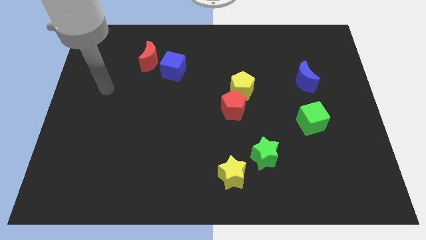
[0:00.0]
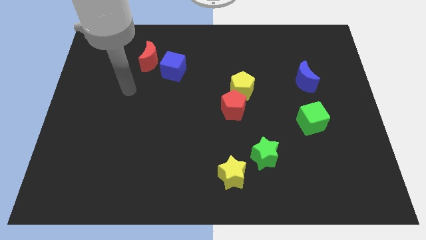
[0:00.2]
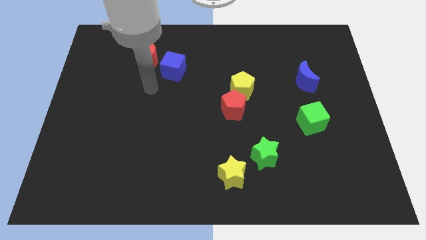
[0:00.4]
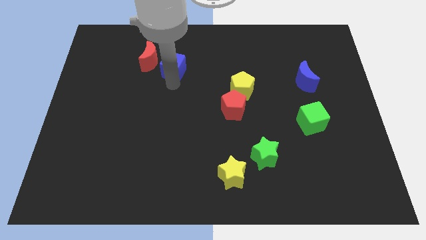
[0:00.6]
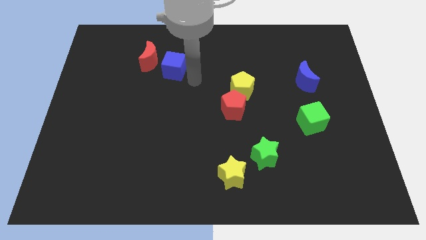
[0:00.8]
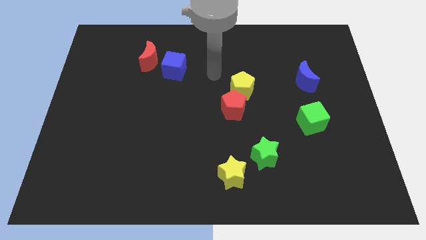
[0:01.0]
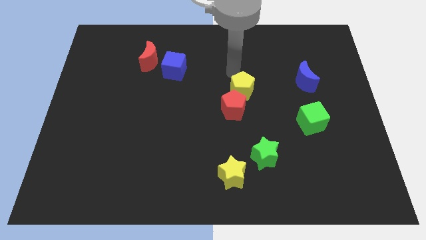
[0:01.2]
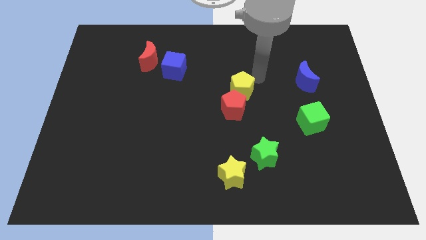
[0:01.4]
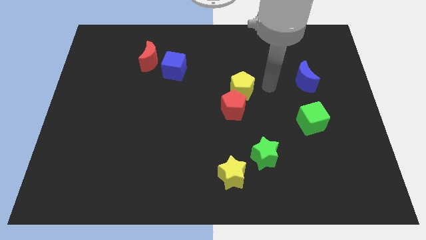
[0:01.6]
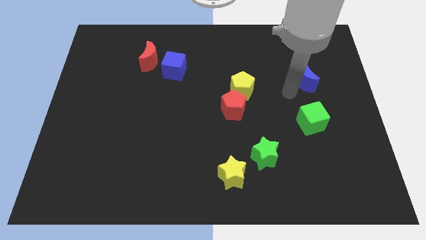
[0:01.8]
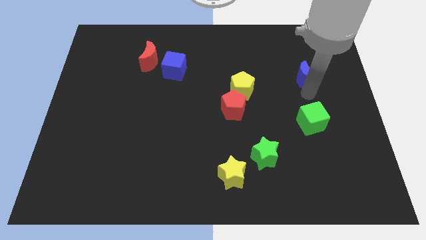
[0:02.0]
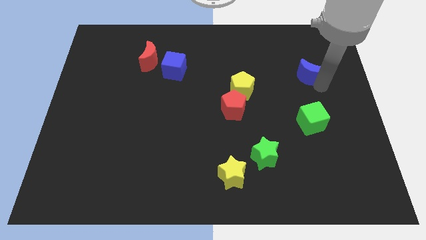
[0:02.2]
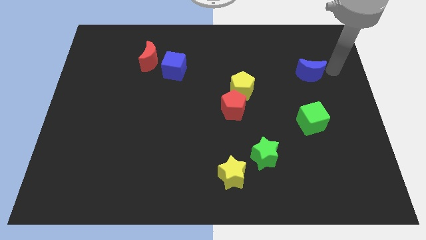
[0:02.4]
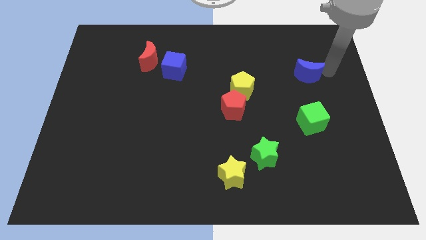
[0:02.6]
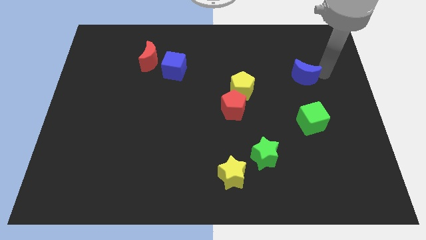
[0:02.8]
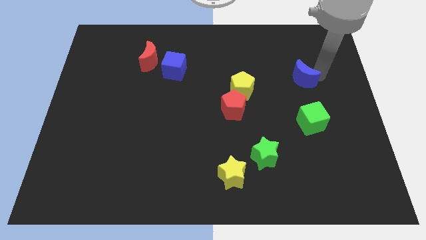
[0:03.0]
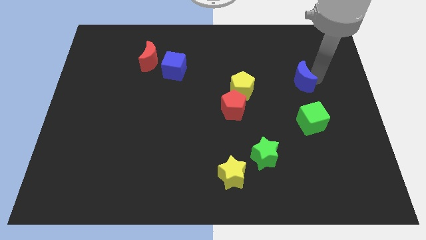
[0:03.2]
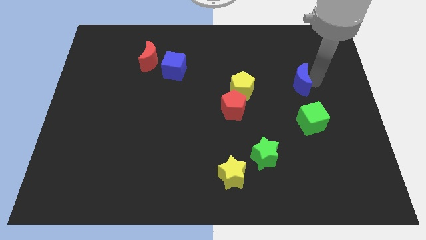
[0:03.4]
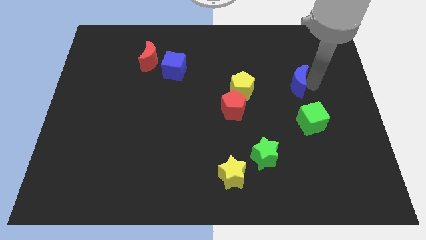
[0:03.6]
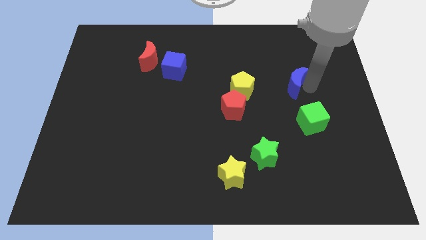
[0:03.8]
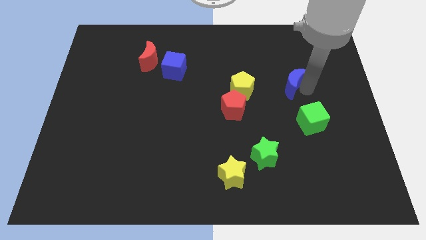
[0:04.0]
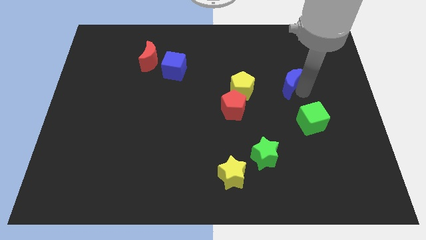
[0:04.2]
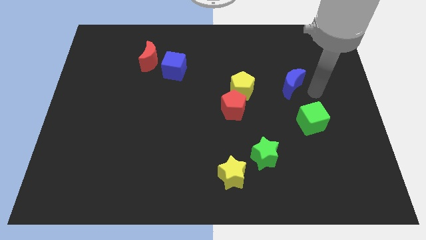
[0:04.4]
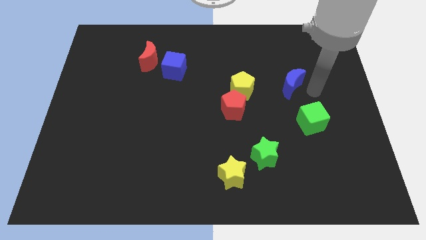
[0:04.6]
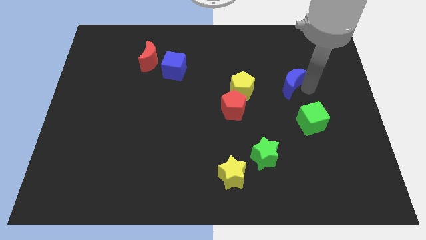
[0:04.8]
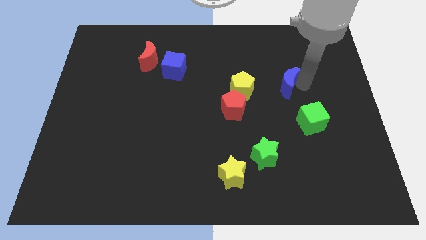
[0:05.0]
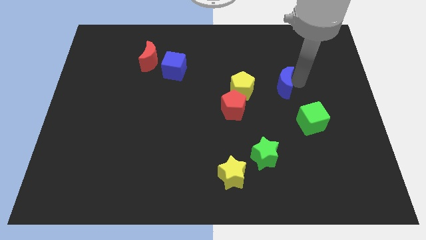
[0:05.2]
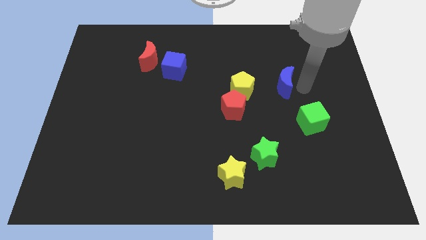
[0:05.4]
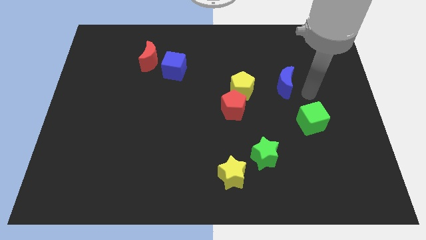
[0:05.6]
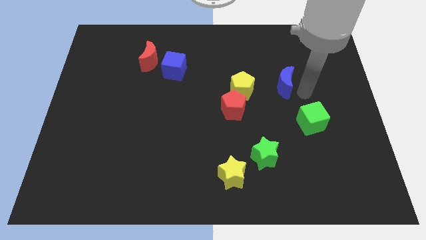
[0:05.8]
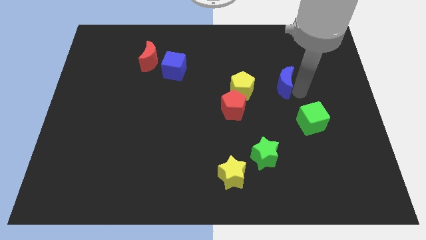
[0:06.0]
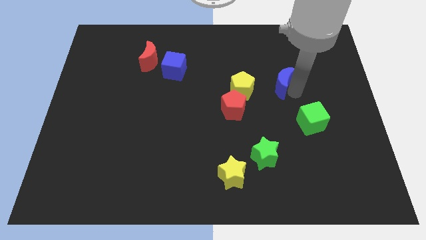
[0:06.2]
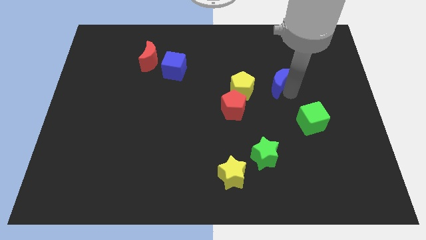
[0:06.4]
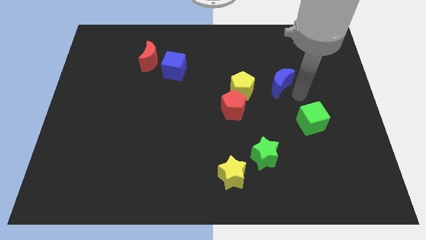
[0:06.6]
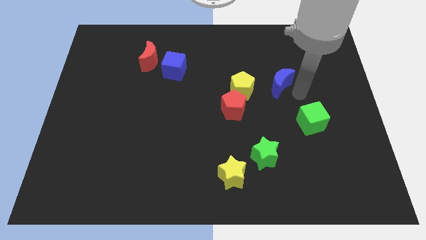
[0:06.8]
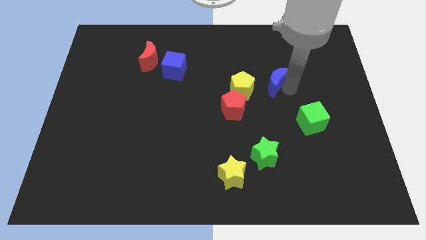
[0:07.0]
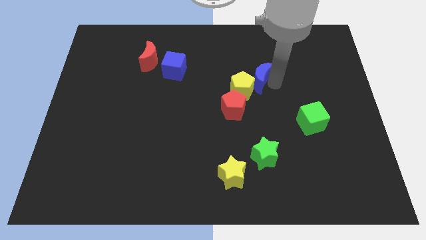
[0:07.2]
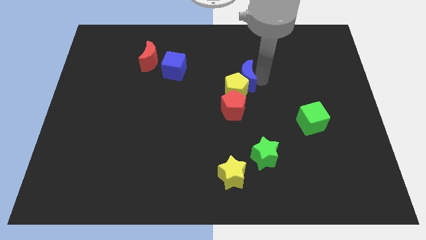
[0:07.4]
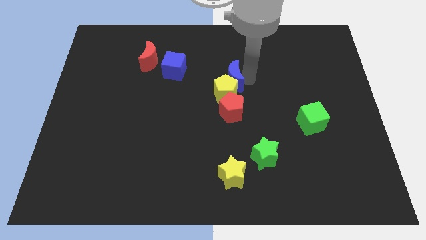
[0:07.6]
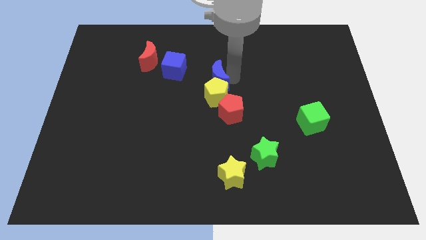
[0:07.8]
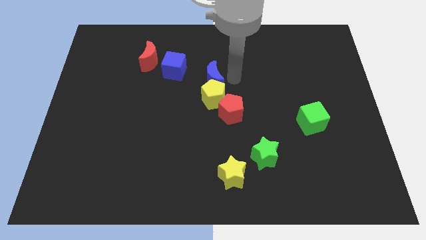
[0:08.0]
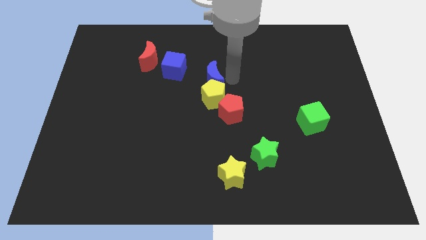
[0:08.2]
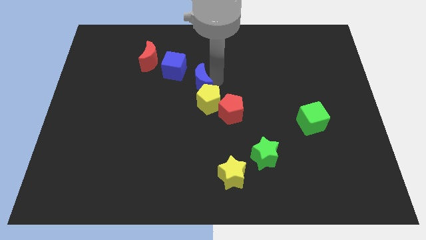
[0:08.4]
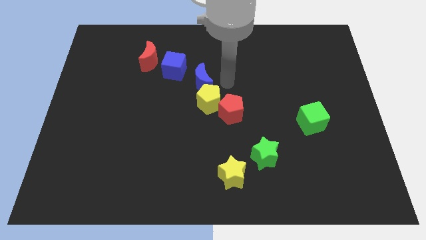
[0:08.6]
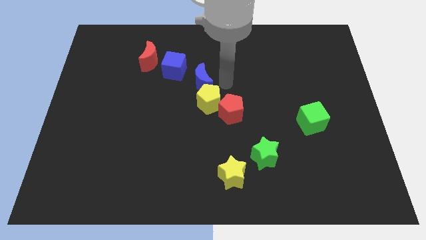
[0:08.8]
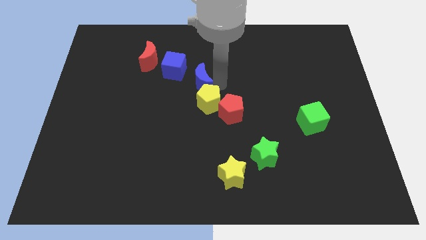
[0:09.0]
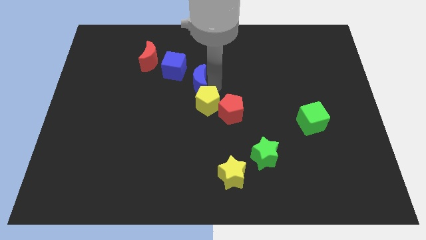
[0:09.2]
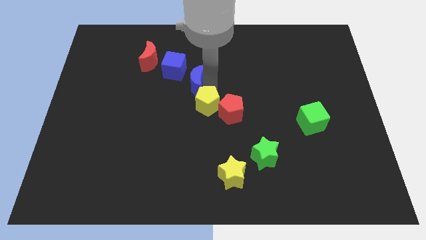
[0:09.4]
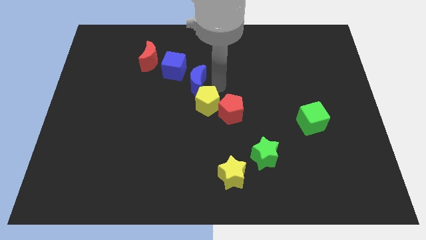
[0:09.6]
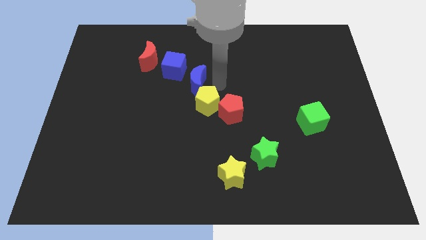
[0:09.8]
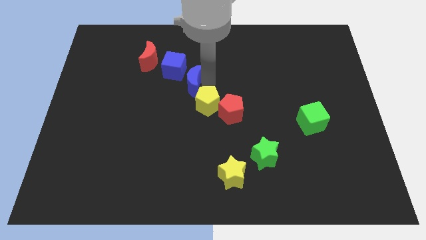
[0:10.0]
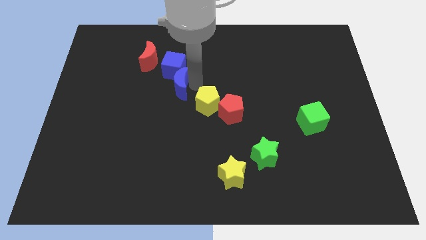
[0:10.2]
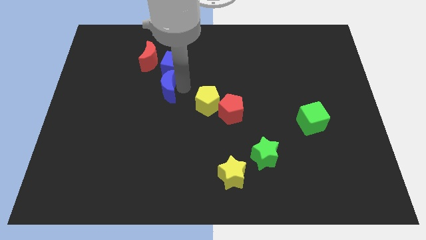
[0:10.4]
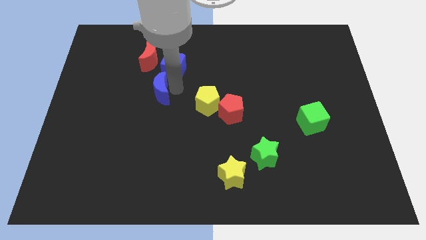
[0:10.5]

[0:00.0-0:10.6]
push the blue moon to the bottom of the red moon

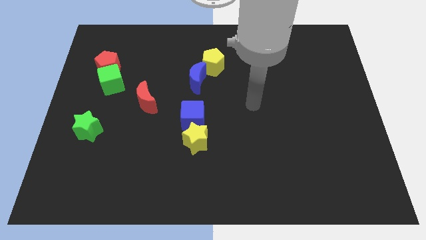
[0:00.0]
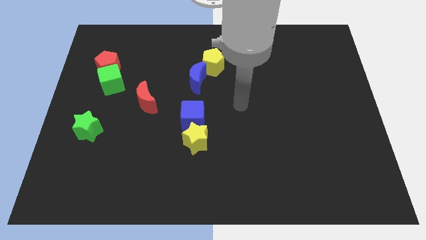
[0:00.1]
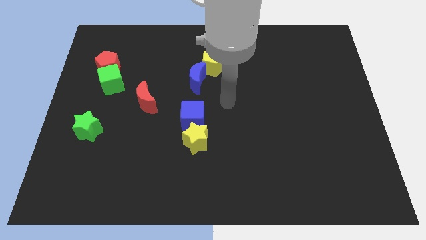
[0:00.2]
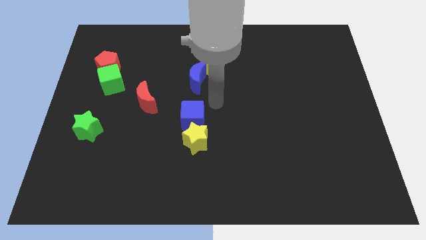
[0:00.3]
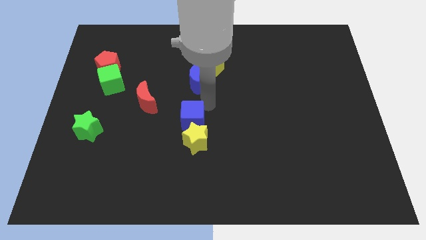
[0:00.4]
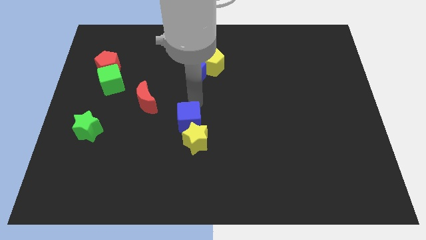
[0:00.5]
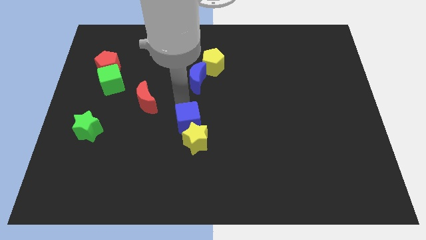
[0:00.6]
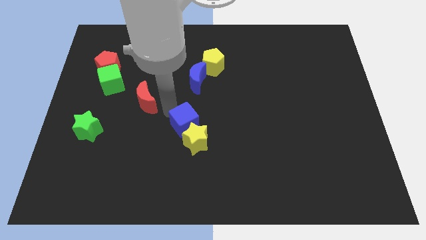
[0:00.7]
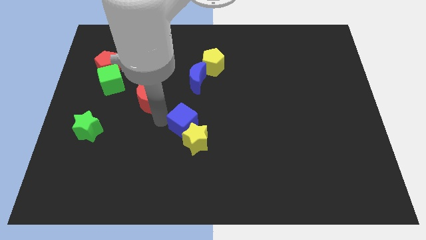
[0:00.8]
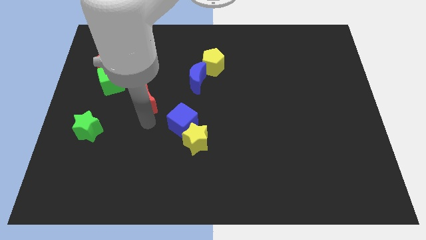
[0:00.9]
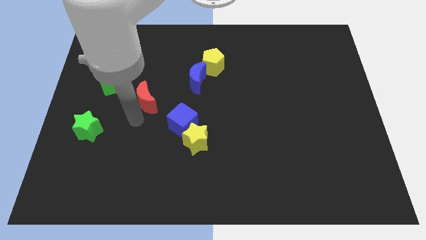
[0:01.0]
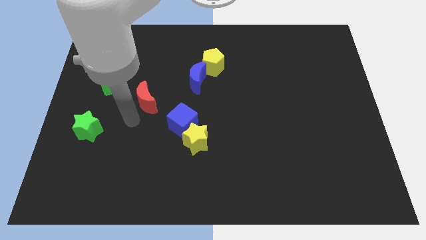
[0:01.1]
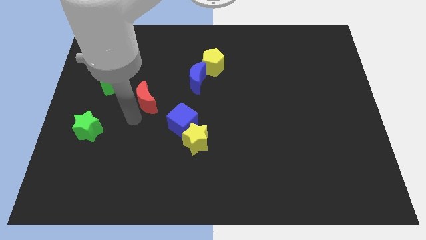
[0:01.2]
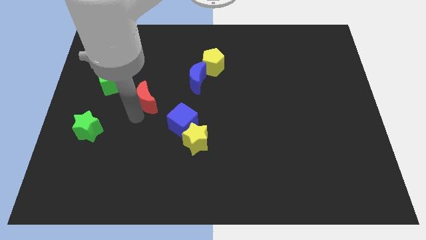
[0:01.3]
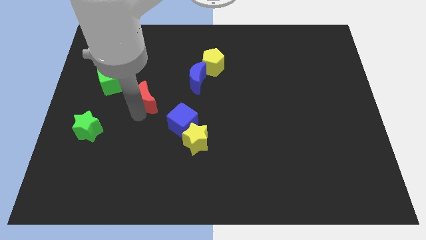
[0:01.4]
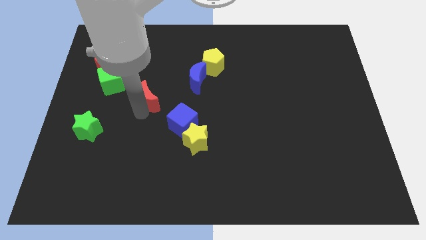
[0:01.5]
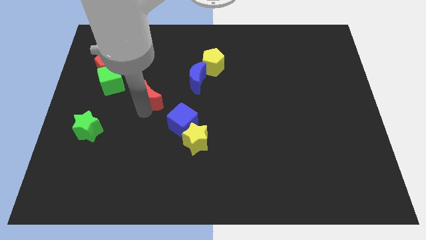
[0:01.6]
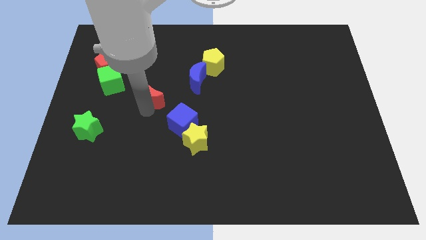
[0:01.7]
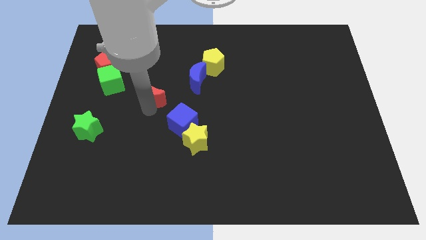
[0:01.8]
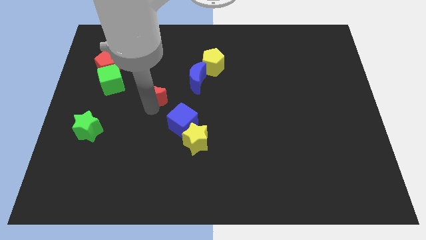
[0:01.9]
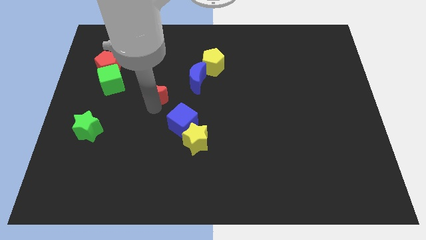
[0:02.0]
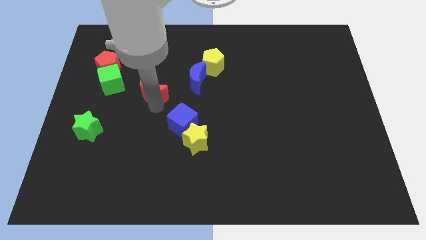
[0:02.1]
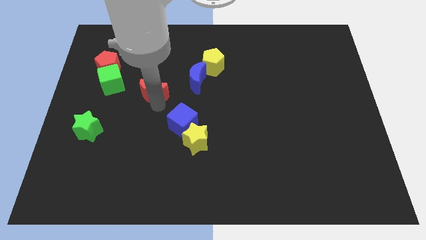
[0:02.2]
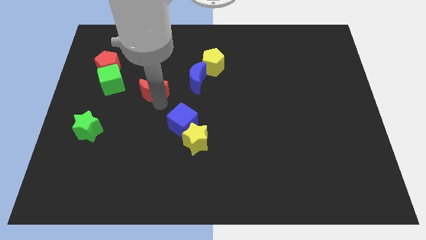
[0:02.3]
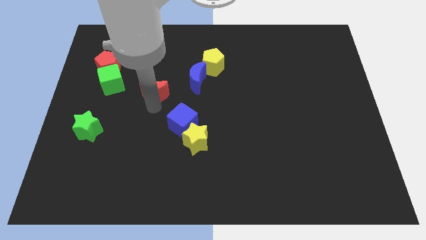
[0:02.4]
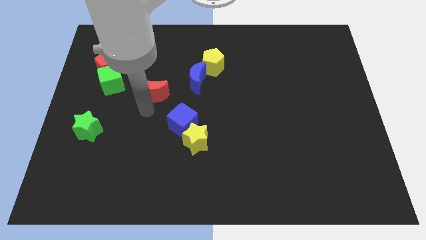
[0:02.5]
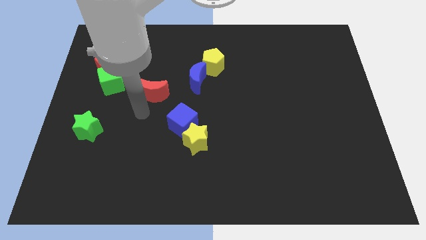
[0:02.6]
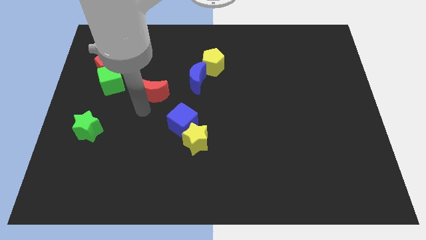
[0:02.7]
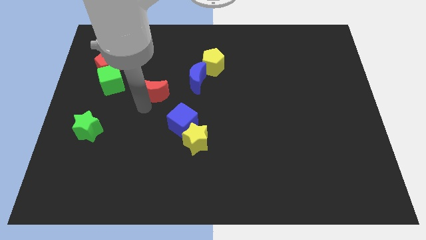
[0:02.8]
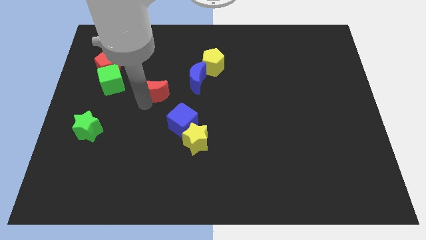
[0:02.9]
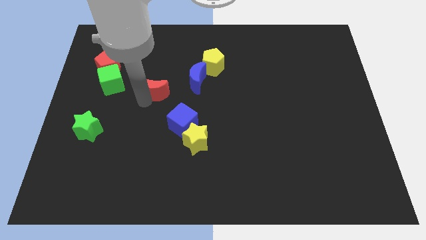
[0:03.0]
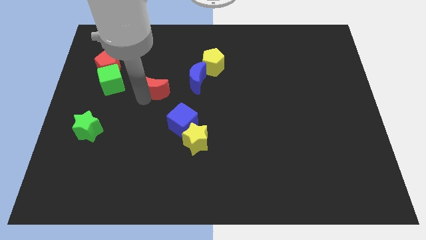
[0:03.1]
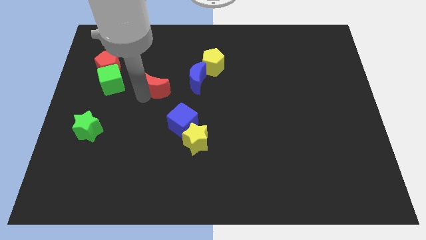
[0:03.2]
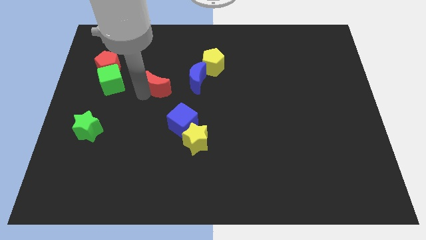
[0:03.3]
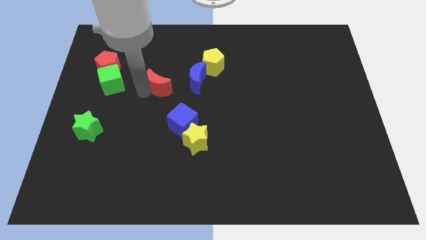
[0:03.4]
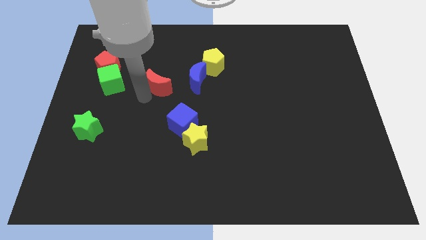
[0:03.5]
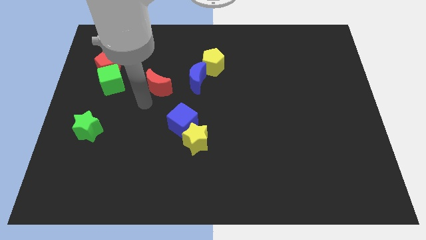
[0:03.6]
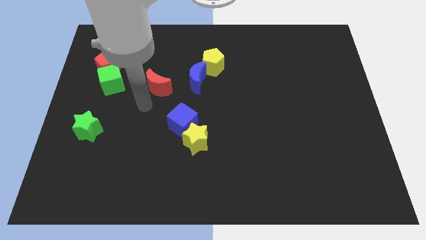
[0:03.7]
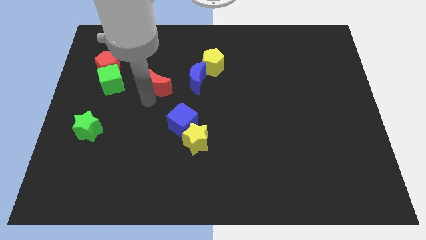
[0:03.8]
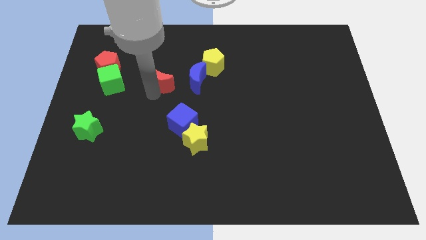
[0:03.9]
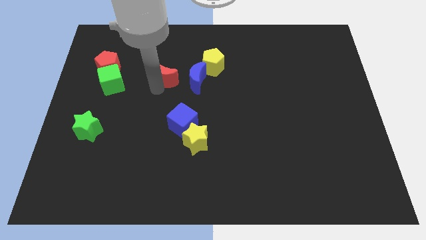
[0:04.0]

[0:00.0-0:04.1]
slide the red moon to the left side of the yellow pentagon
